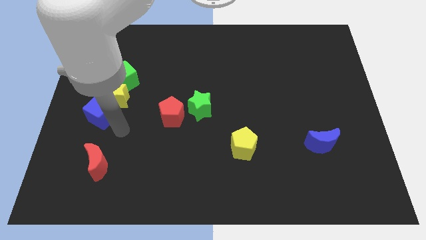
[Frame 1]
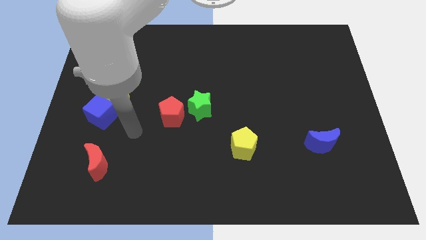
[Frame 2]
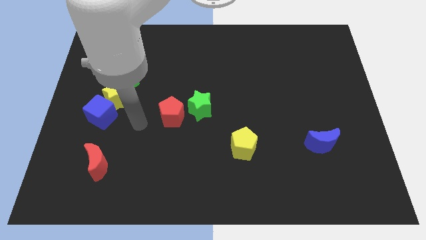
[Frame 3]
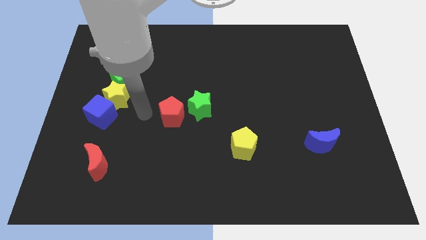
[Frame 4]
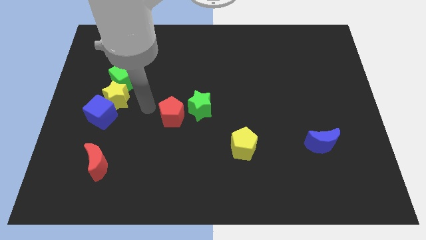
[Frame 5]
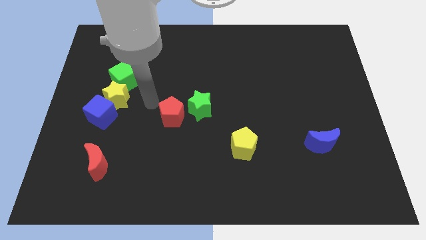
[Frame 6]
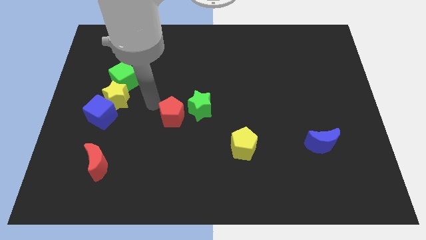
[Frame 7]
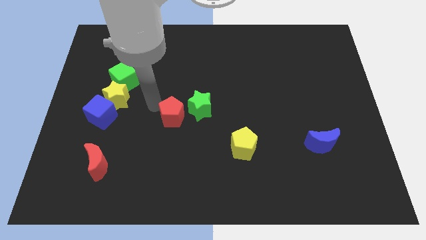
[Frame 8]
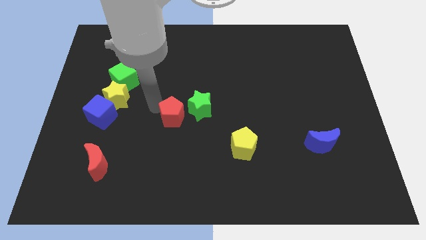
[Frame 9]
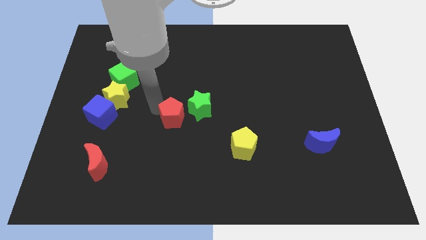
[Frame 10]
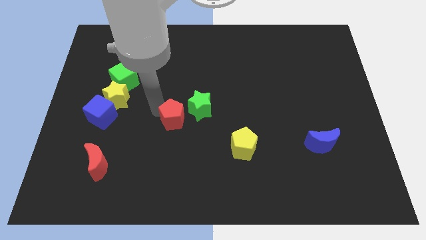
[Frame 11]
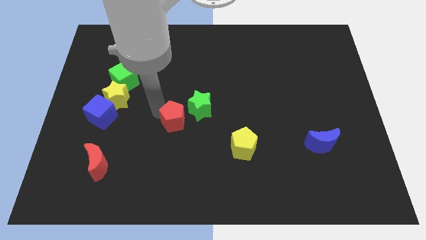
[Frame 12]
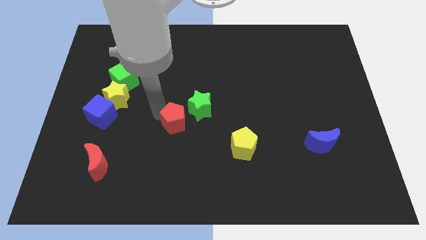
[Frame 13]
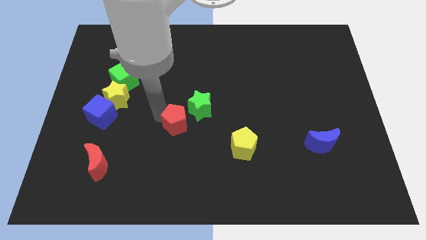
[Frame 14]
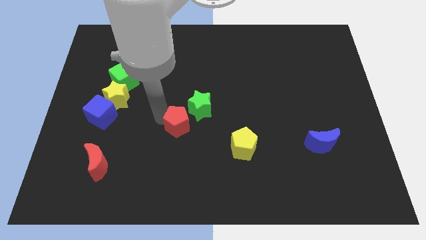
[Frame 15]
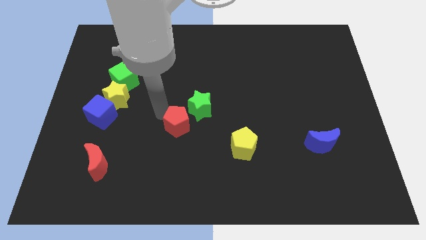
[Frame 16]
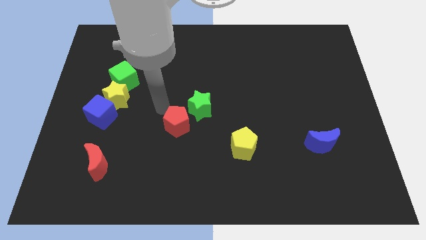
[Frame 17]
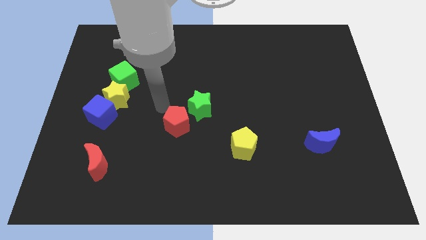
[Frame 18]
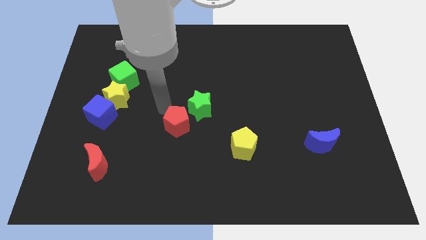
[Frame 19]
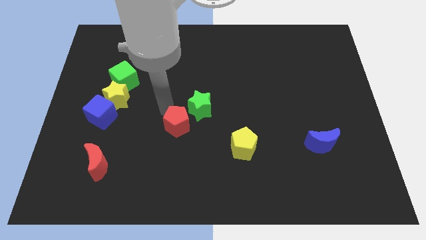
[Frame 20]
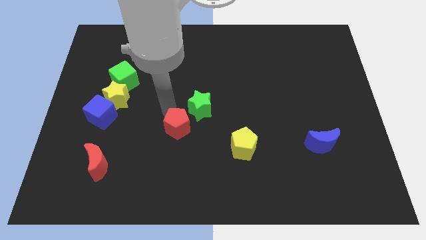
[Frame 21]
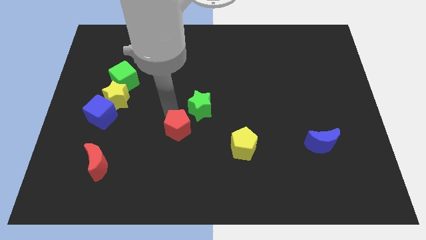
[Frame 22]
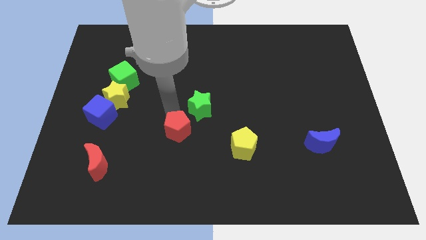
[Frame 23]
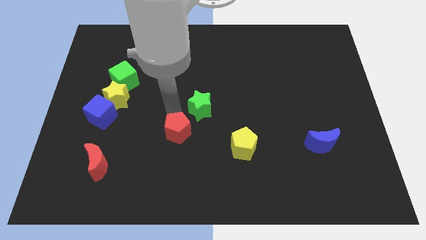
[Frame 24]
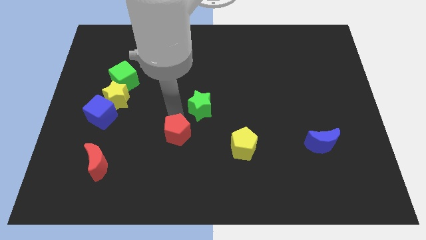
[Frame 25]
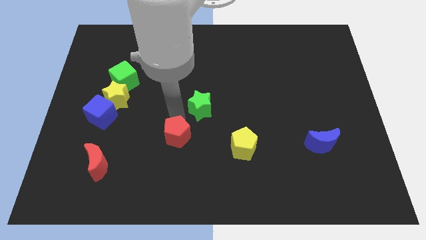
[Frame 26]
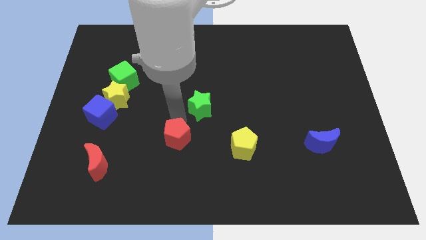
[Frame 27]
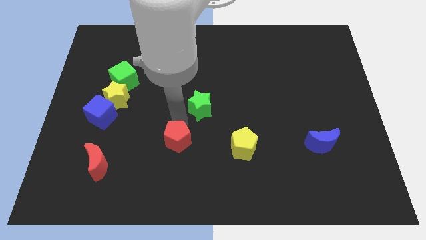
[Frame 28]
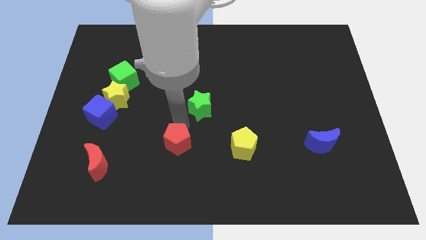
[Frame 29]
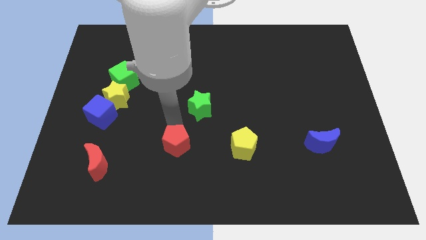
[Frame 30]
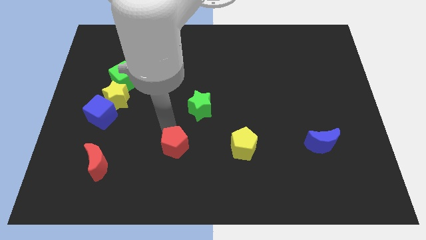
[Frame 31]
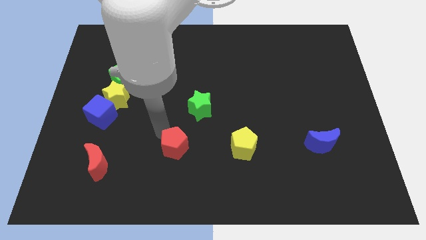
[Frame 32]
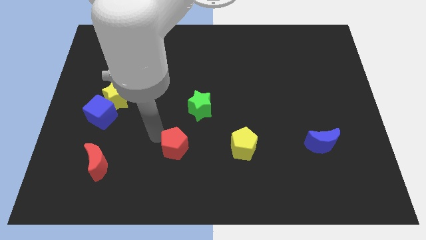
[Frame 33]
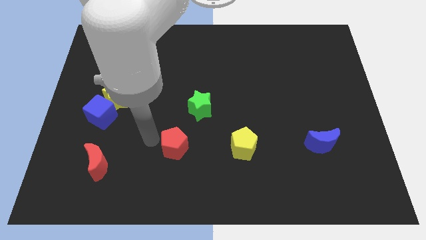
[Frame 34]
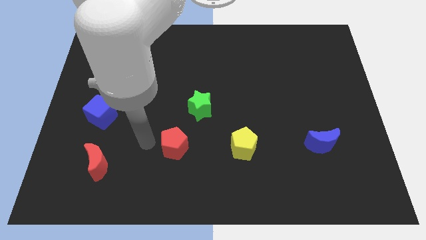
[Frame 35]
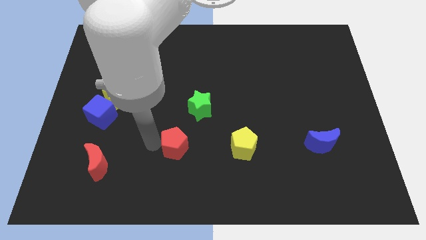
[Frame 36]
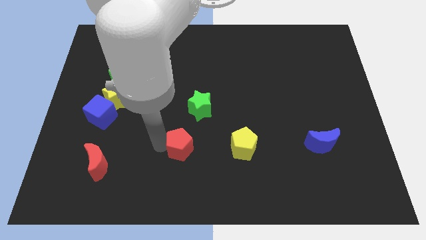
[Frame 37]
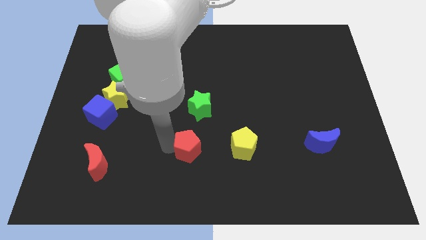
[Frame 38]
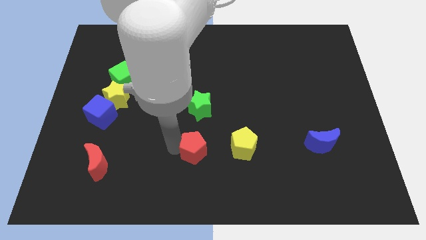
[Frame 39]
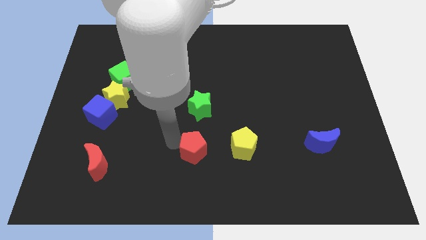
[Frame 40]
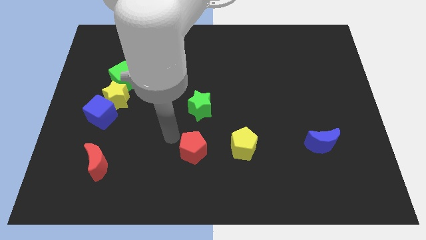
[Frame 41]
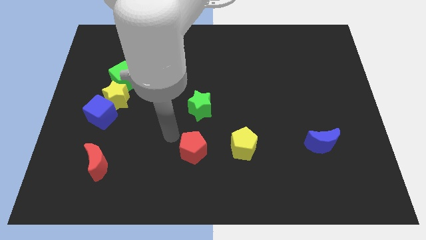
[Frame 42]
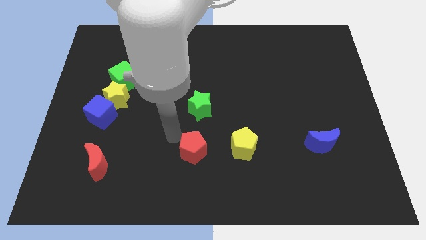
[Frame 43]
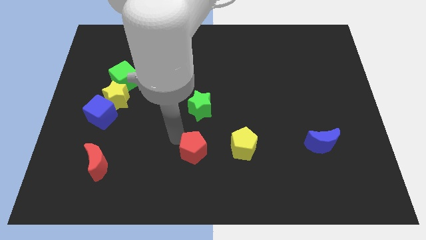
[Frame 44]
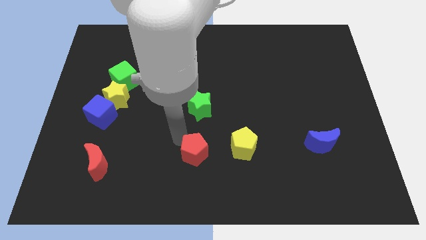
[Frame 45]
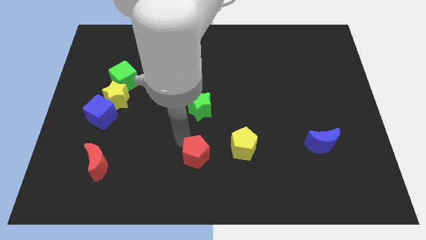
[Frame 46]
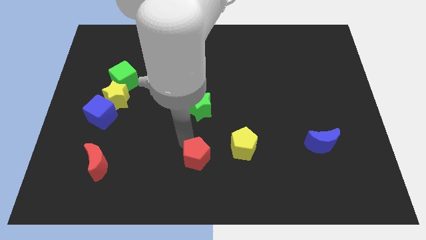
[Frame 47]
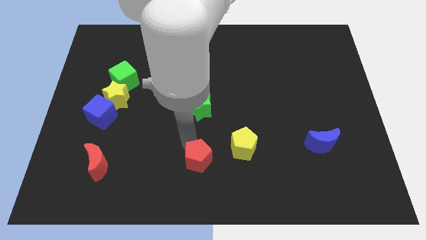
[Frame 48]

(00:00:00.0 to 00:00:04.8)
slide the red pentagon to the bottom left side of the yellow pentagon

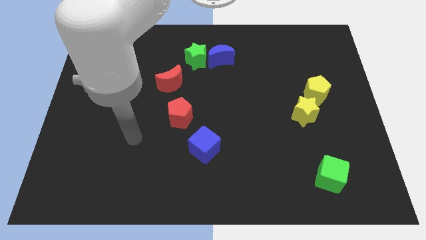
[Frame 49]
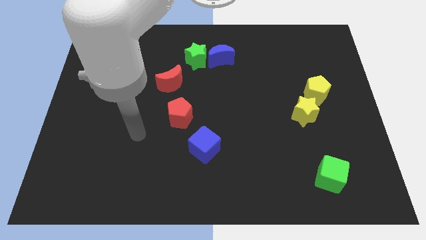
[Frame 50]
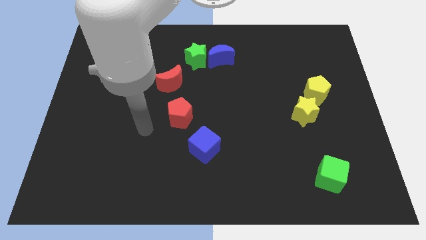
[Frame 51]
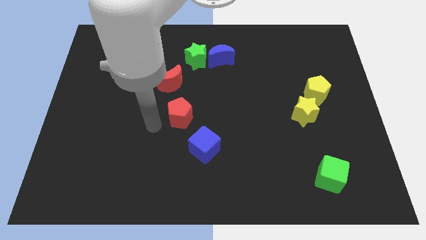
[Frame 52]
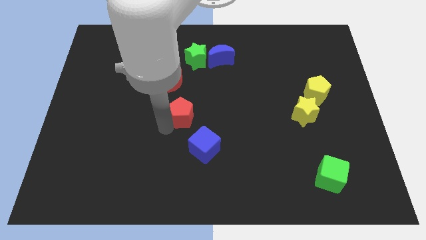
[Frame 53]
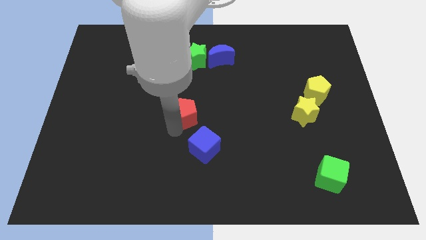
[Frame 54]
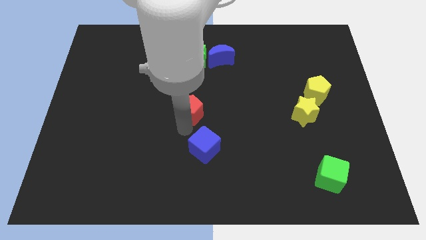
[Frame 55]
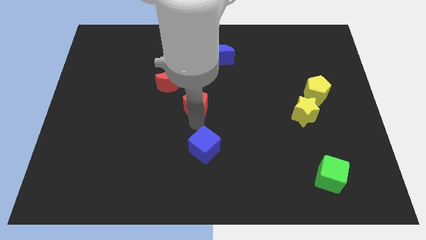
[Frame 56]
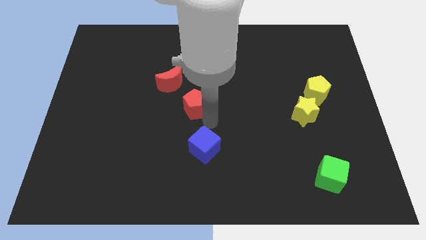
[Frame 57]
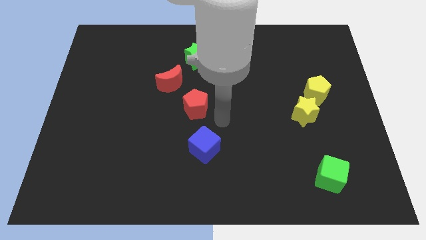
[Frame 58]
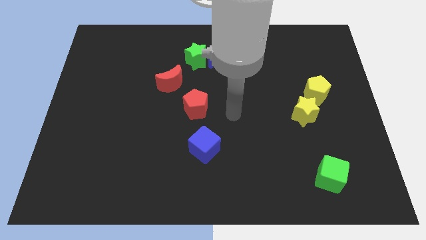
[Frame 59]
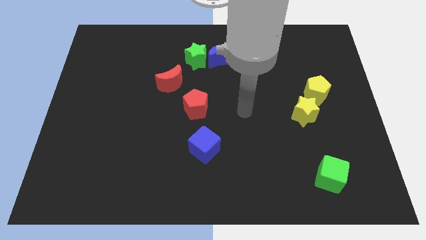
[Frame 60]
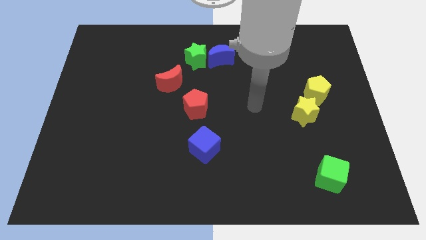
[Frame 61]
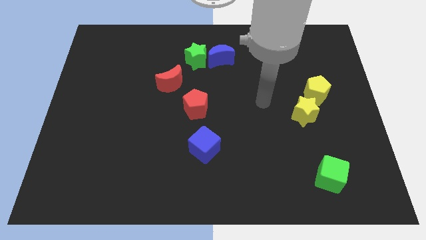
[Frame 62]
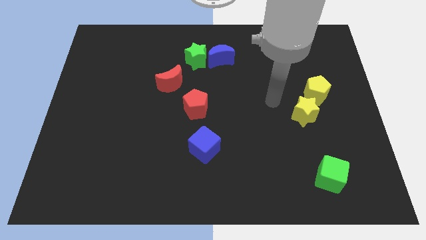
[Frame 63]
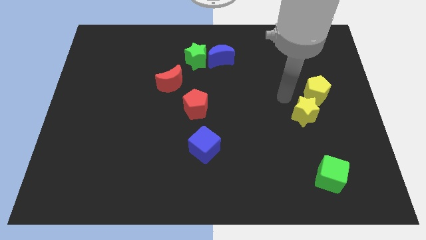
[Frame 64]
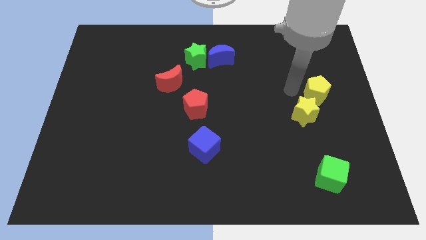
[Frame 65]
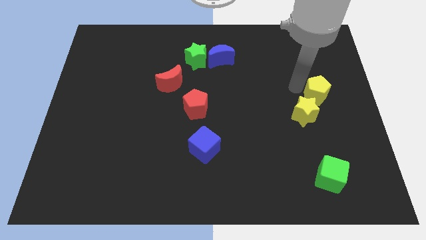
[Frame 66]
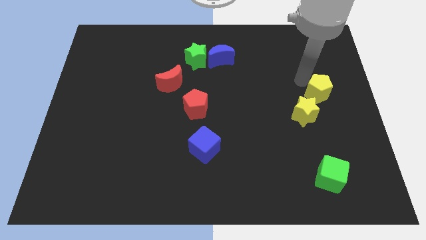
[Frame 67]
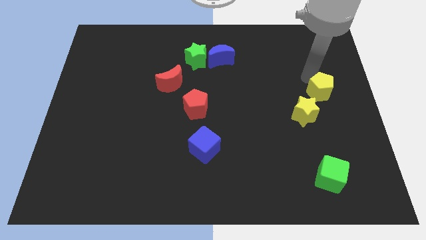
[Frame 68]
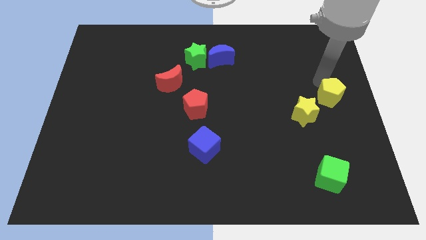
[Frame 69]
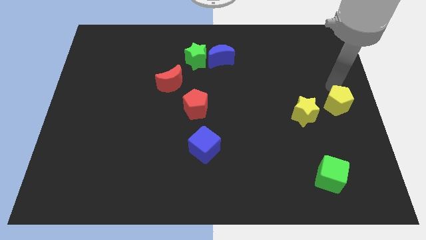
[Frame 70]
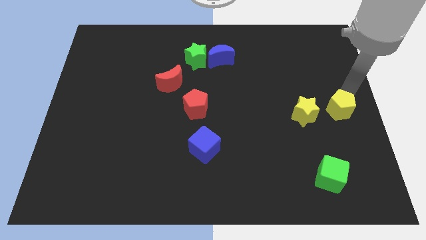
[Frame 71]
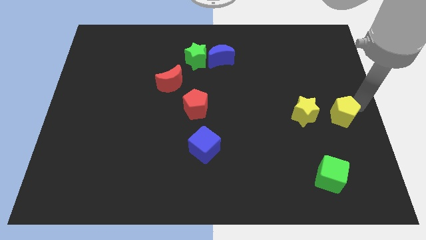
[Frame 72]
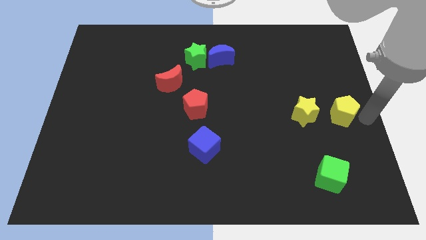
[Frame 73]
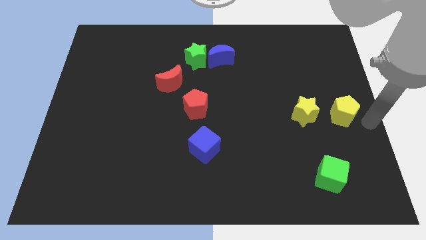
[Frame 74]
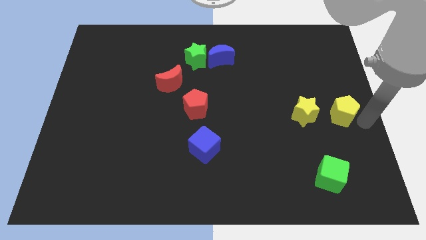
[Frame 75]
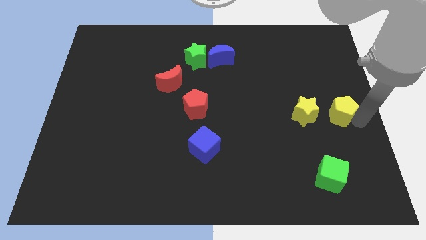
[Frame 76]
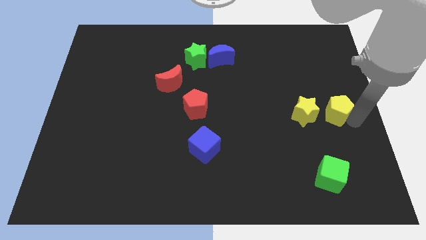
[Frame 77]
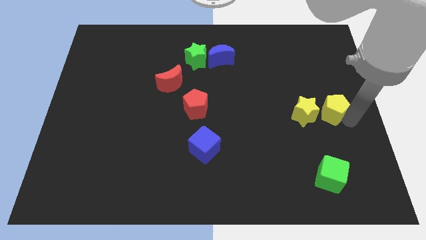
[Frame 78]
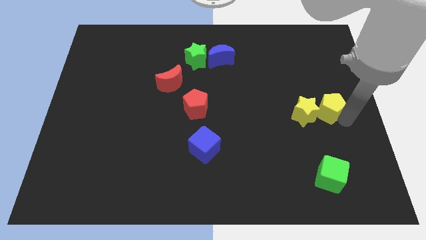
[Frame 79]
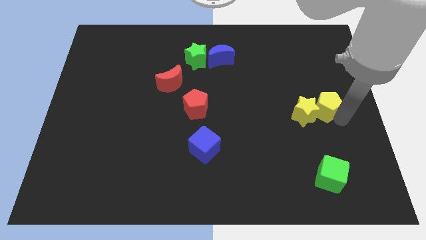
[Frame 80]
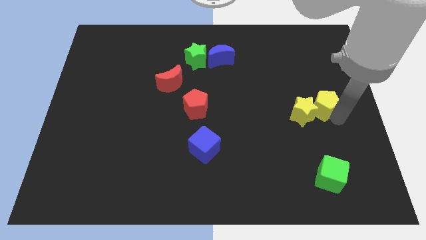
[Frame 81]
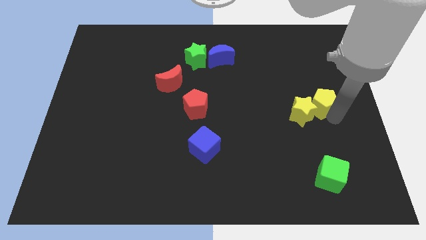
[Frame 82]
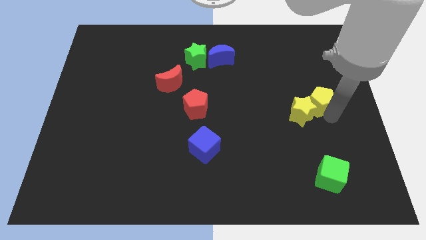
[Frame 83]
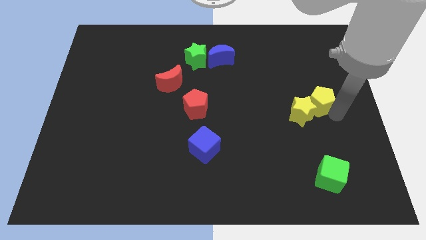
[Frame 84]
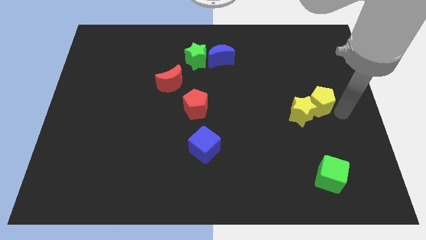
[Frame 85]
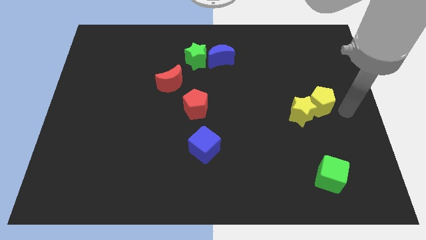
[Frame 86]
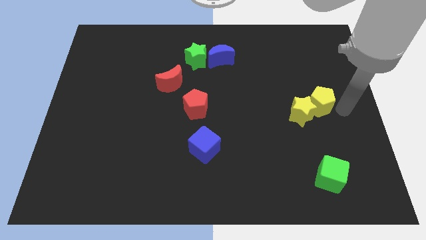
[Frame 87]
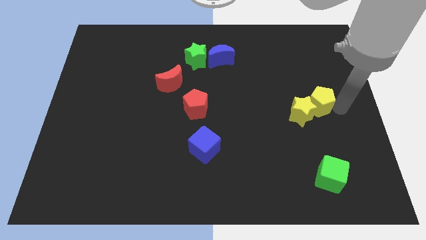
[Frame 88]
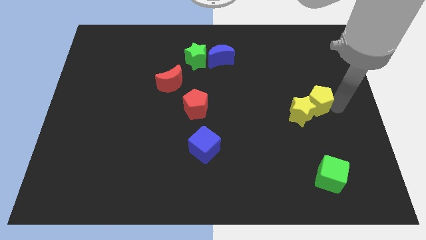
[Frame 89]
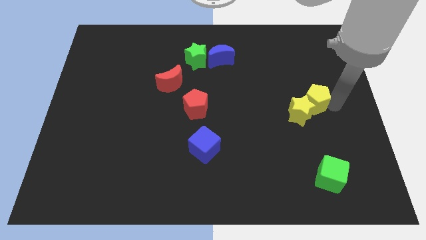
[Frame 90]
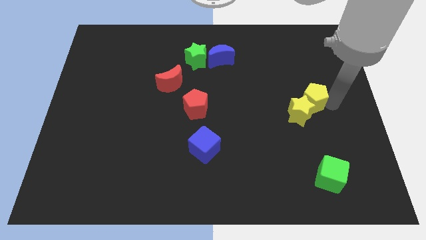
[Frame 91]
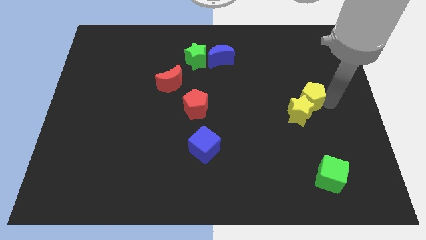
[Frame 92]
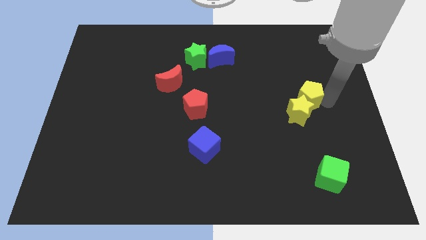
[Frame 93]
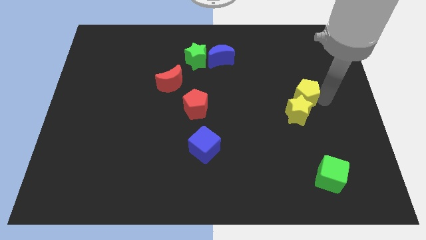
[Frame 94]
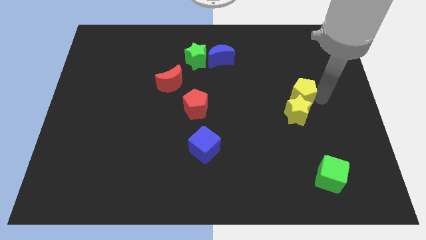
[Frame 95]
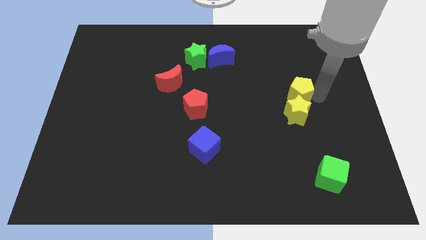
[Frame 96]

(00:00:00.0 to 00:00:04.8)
move the yellow pentagon diagonally up and to the left of the yellow star
